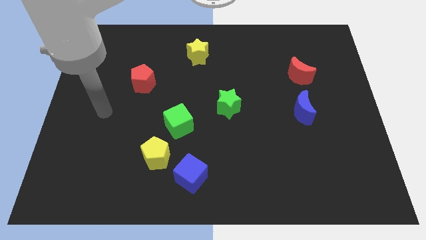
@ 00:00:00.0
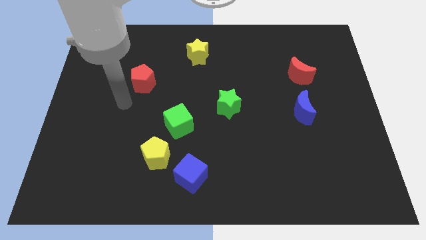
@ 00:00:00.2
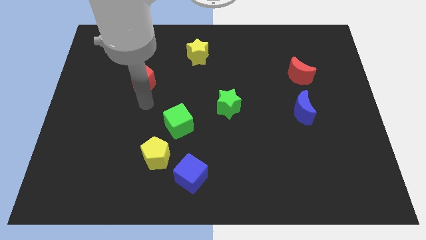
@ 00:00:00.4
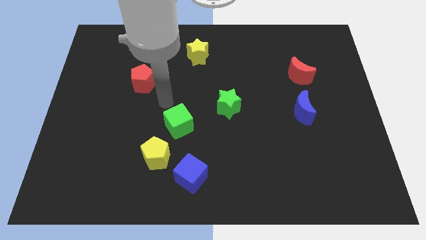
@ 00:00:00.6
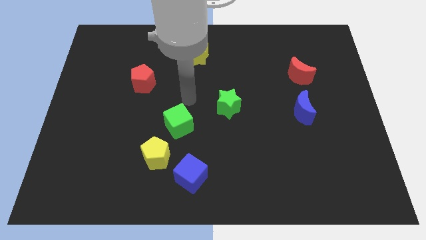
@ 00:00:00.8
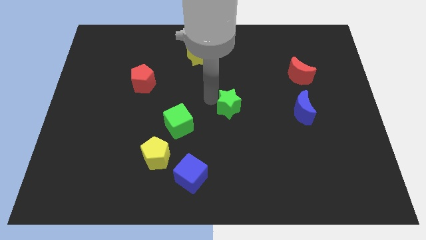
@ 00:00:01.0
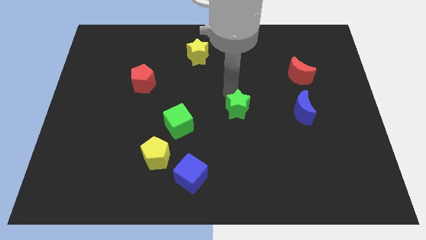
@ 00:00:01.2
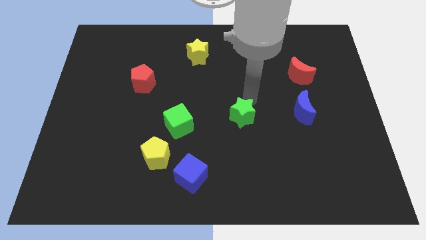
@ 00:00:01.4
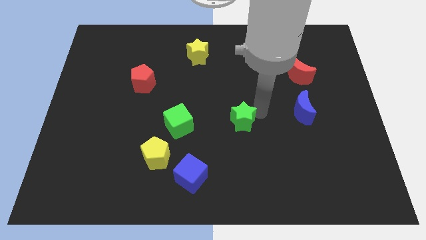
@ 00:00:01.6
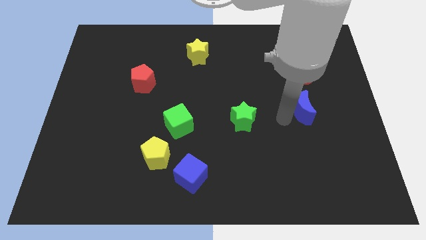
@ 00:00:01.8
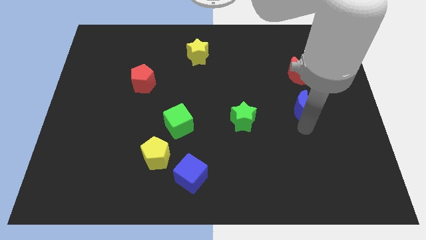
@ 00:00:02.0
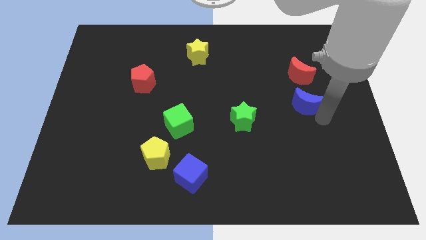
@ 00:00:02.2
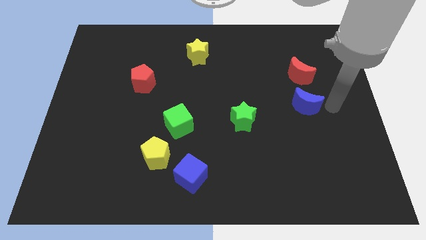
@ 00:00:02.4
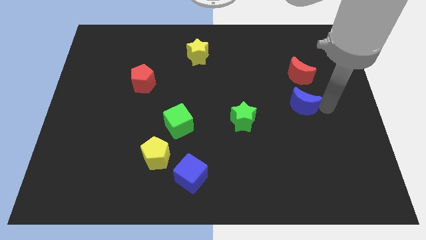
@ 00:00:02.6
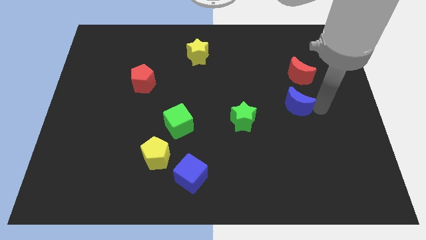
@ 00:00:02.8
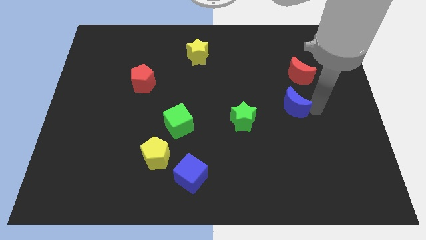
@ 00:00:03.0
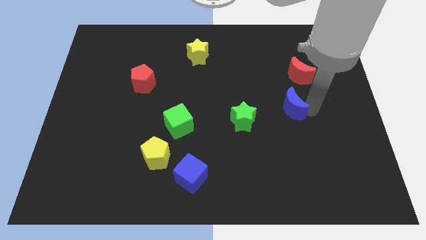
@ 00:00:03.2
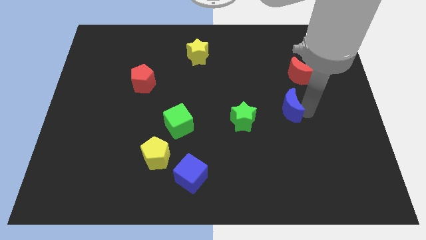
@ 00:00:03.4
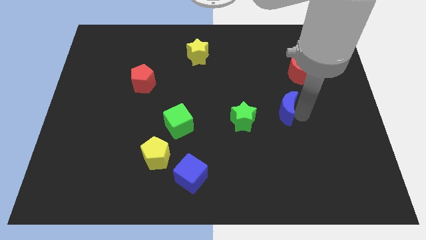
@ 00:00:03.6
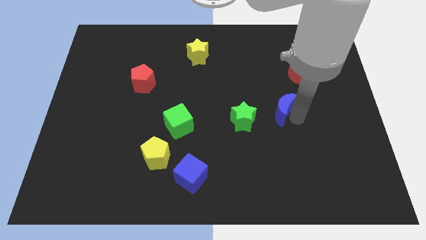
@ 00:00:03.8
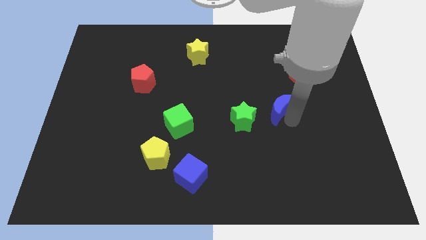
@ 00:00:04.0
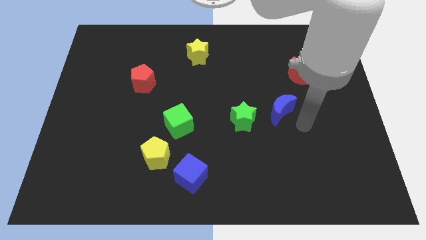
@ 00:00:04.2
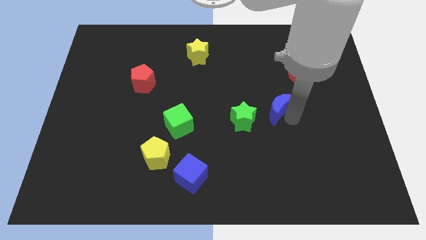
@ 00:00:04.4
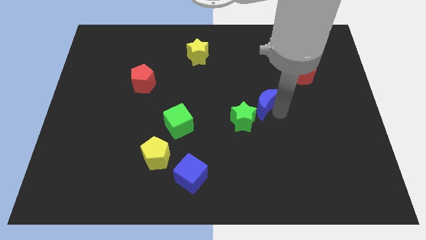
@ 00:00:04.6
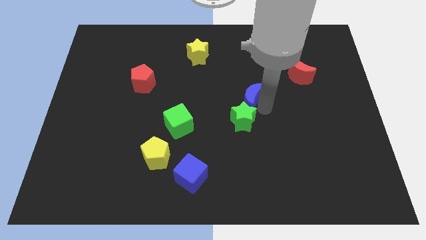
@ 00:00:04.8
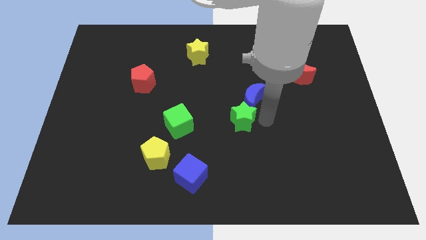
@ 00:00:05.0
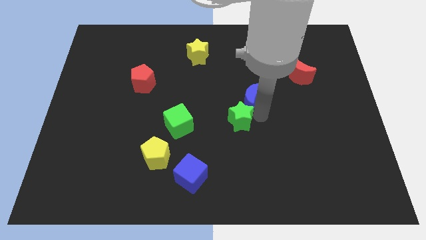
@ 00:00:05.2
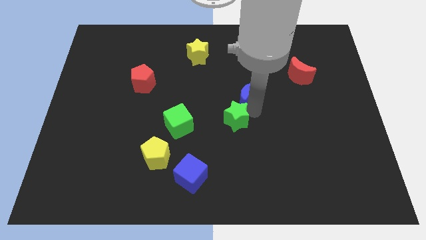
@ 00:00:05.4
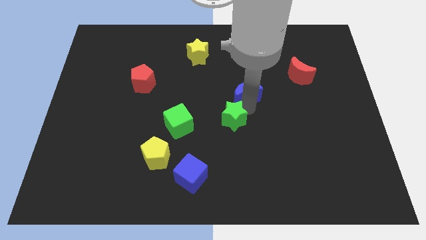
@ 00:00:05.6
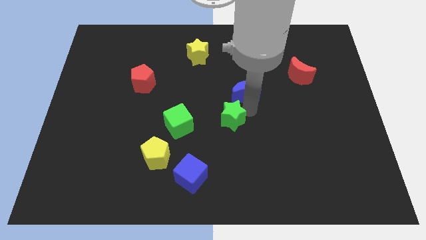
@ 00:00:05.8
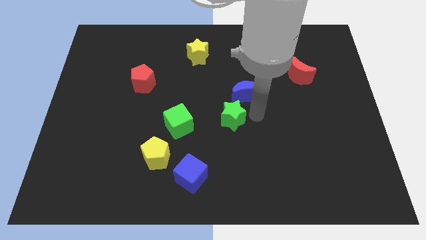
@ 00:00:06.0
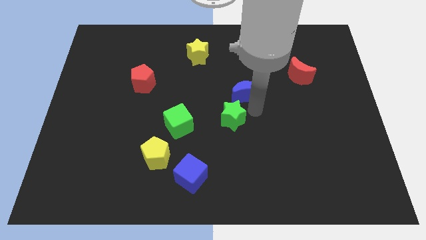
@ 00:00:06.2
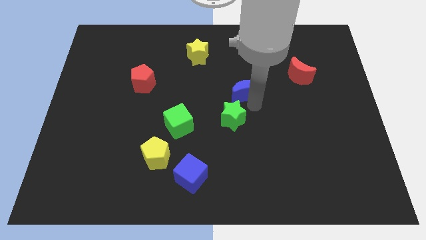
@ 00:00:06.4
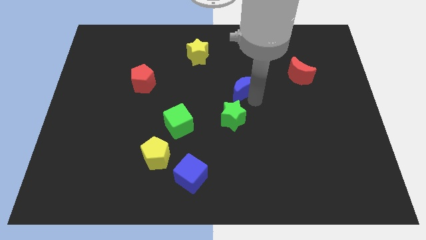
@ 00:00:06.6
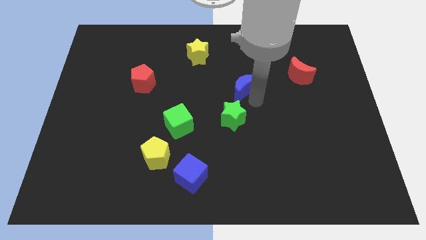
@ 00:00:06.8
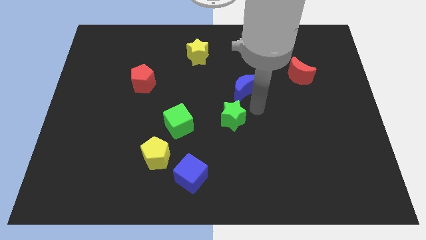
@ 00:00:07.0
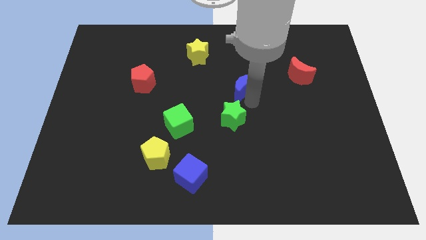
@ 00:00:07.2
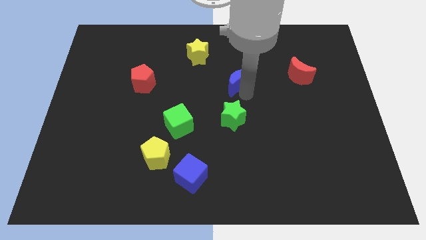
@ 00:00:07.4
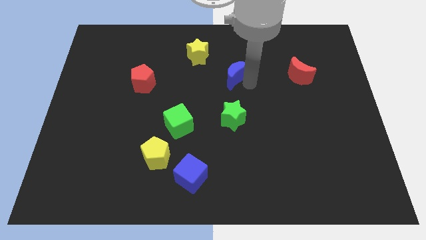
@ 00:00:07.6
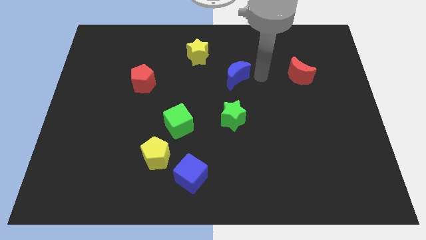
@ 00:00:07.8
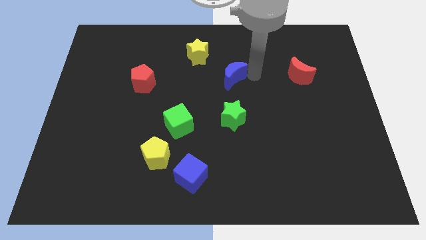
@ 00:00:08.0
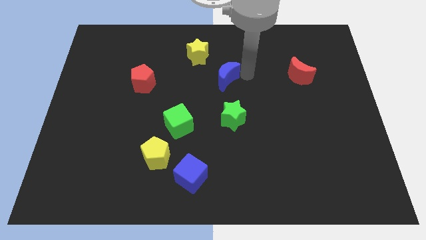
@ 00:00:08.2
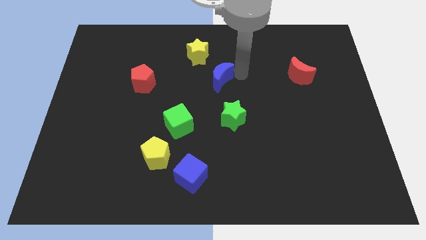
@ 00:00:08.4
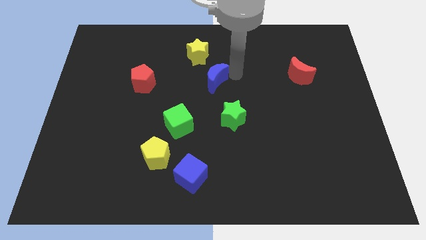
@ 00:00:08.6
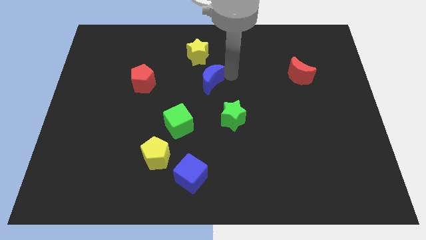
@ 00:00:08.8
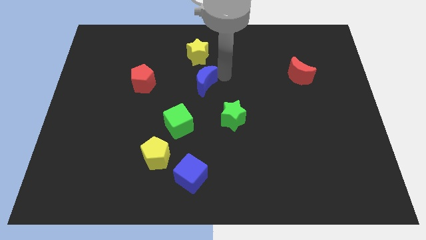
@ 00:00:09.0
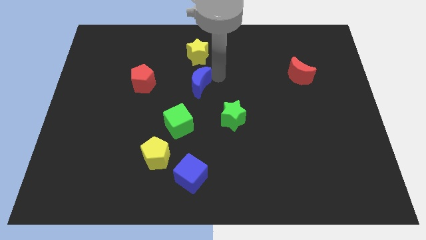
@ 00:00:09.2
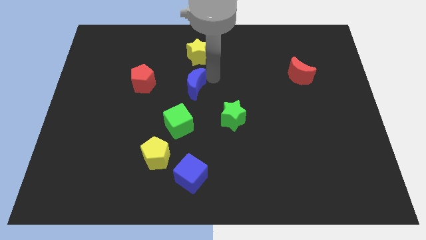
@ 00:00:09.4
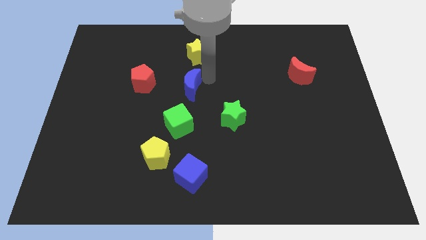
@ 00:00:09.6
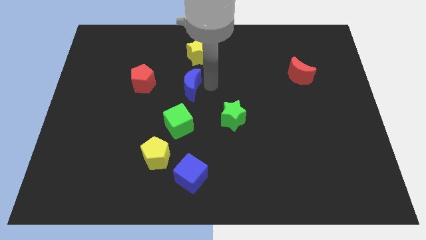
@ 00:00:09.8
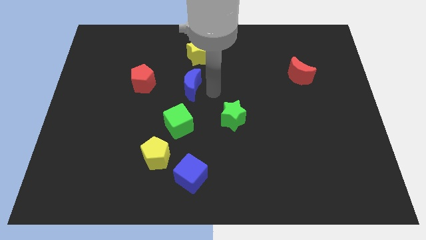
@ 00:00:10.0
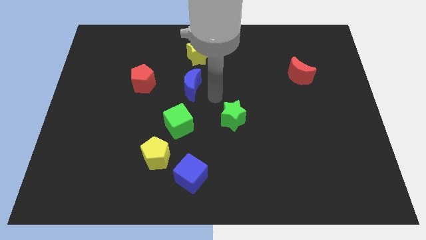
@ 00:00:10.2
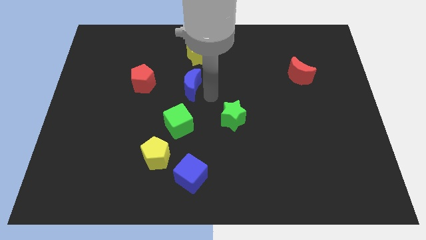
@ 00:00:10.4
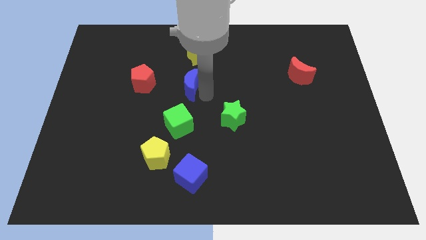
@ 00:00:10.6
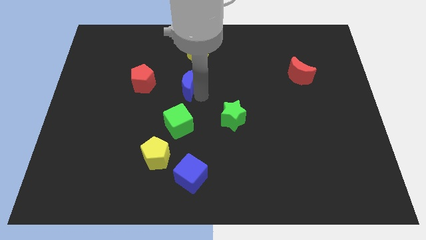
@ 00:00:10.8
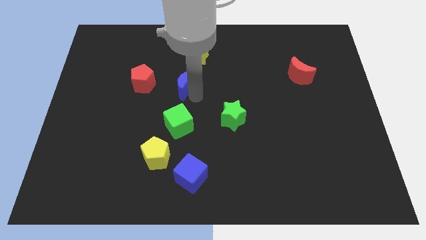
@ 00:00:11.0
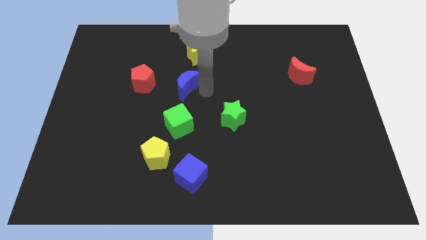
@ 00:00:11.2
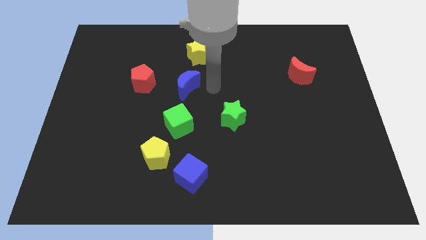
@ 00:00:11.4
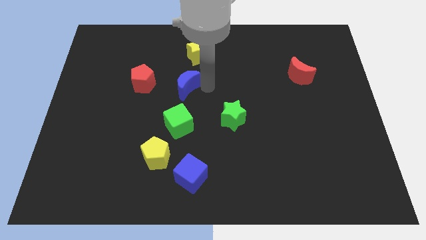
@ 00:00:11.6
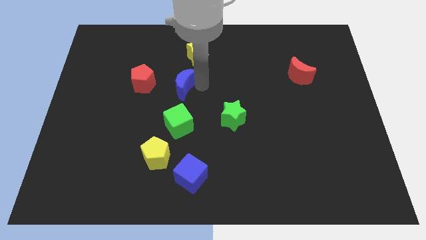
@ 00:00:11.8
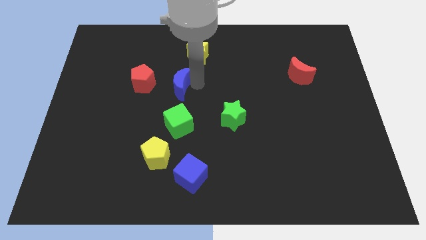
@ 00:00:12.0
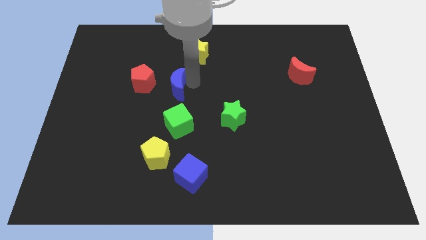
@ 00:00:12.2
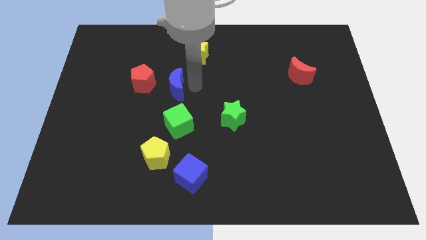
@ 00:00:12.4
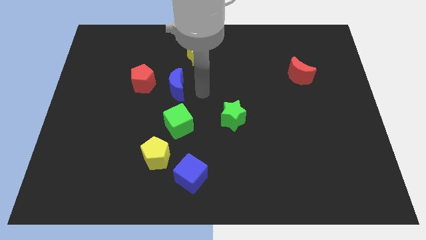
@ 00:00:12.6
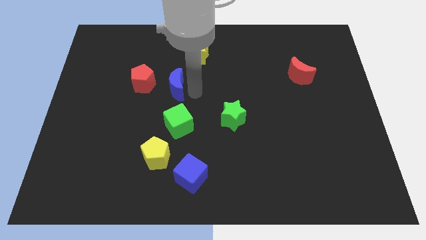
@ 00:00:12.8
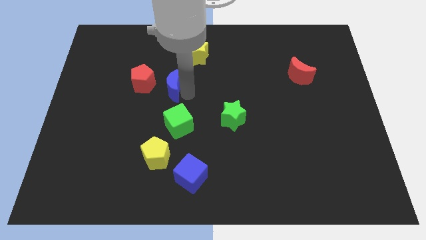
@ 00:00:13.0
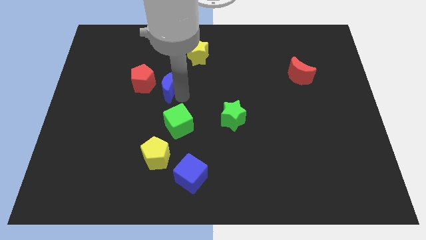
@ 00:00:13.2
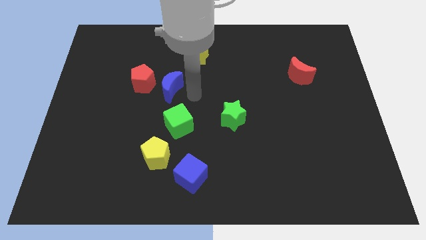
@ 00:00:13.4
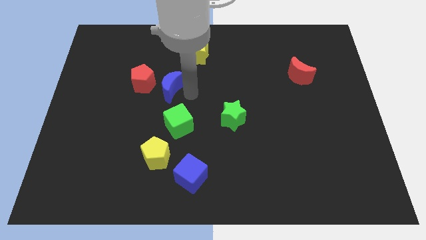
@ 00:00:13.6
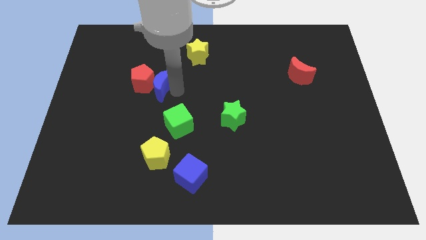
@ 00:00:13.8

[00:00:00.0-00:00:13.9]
push the blue moon close to the red pentagon
